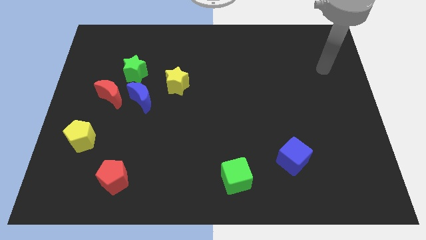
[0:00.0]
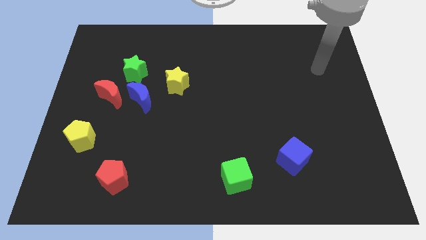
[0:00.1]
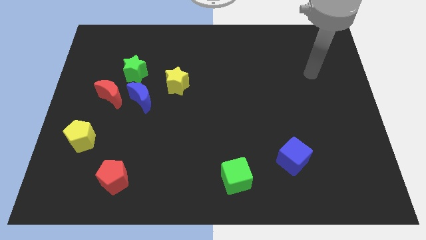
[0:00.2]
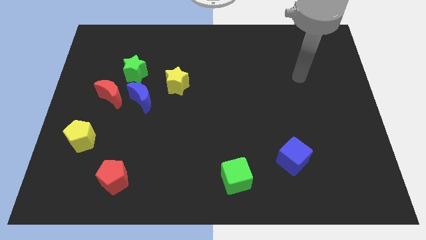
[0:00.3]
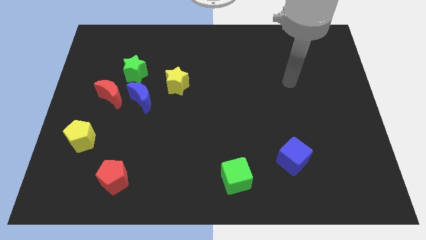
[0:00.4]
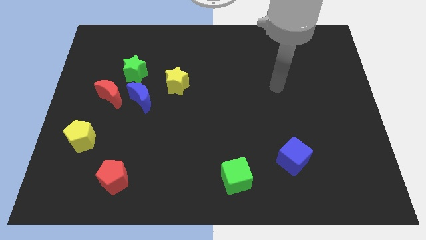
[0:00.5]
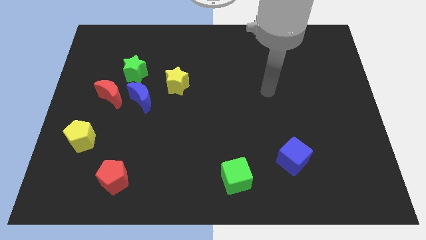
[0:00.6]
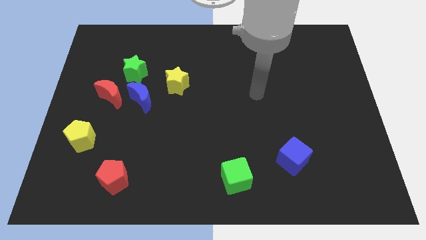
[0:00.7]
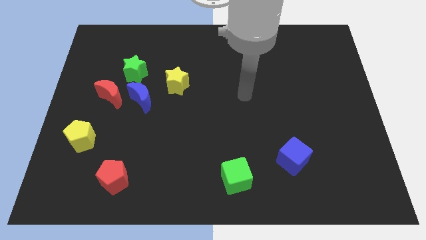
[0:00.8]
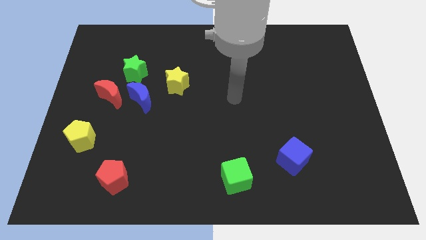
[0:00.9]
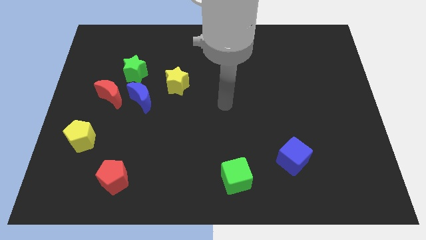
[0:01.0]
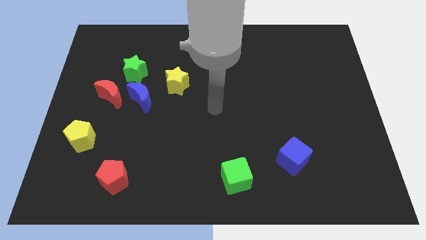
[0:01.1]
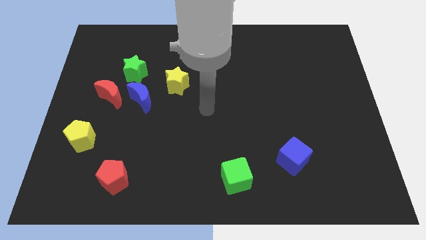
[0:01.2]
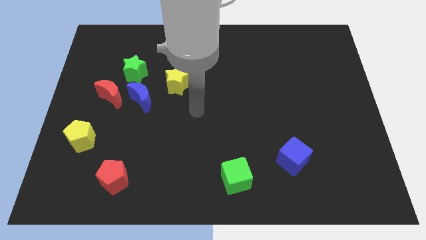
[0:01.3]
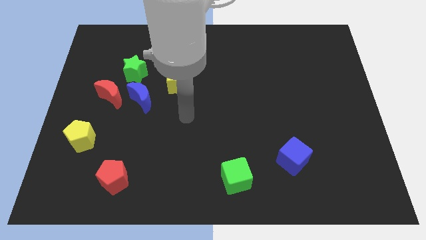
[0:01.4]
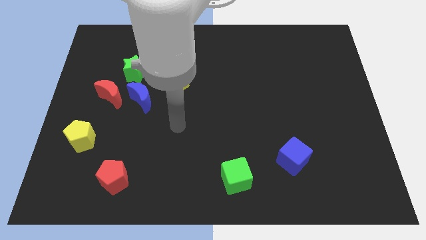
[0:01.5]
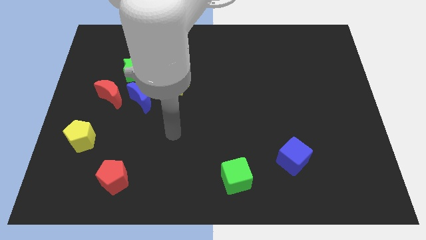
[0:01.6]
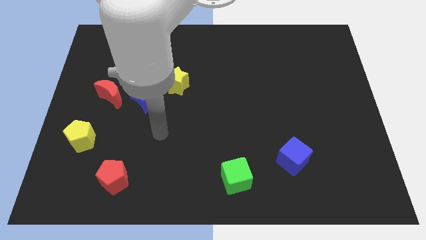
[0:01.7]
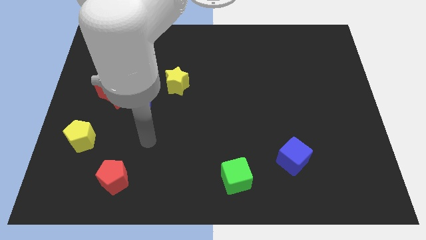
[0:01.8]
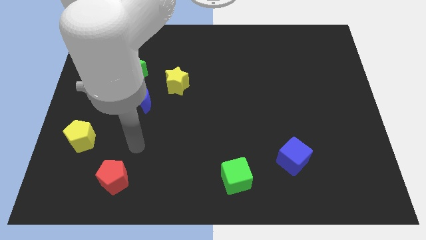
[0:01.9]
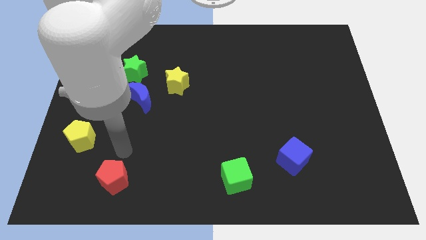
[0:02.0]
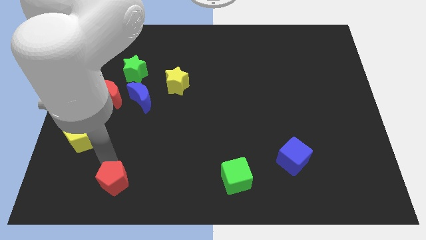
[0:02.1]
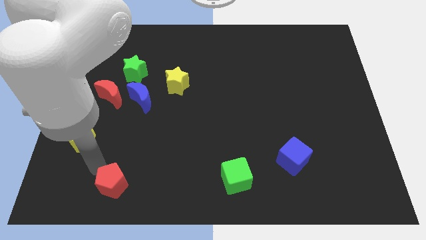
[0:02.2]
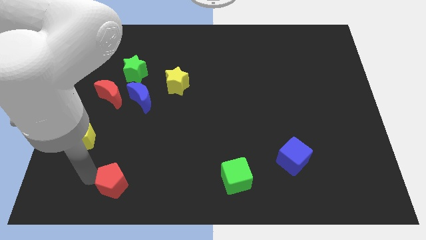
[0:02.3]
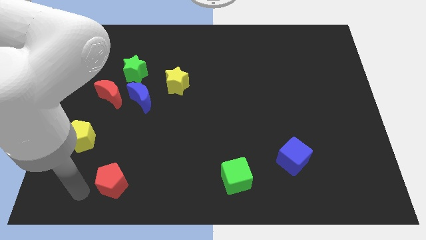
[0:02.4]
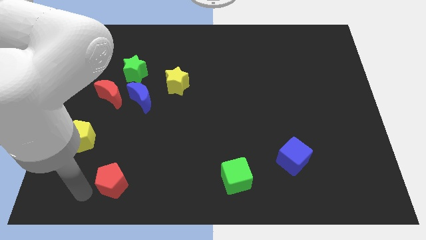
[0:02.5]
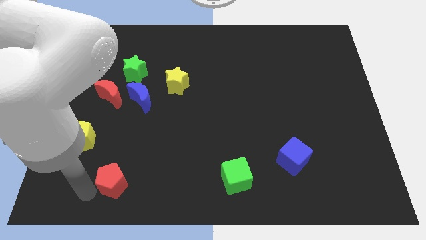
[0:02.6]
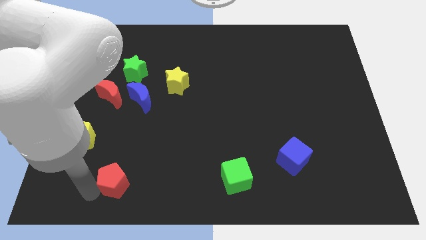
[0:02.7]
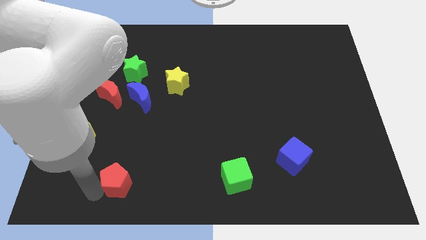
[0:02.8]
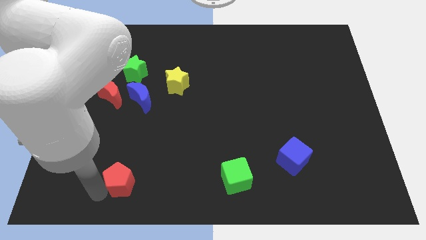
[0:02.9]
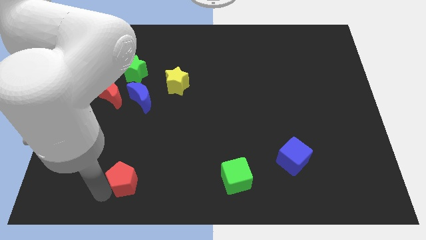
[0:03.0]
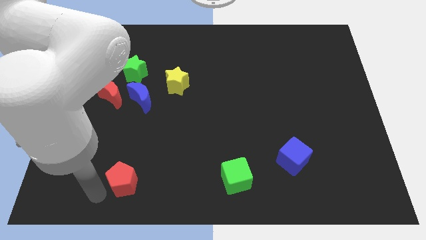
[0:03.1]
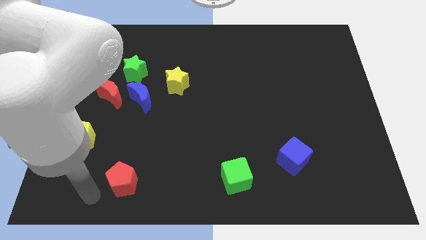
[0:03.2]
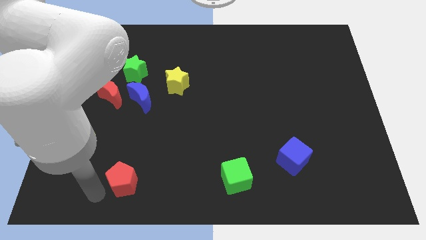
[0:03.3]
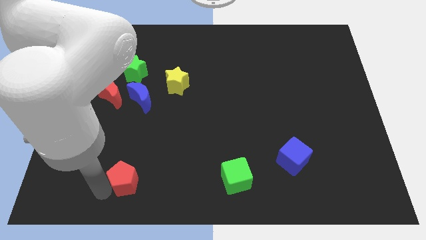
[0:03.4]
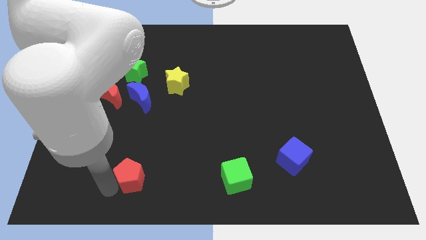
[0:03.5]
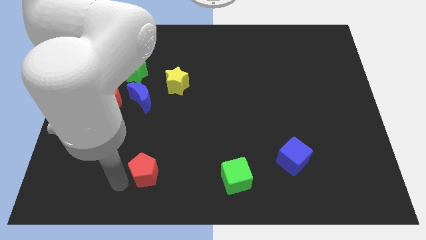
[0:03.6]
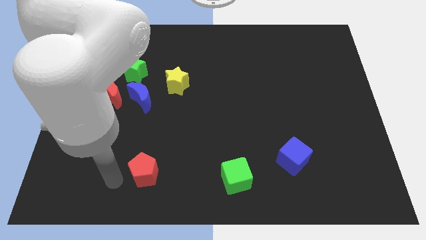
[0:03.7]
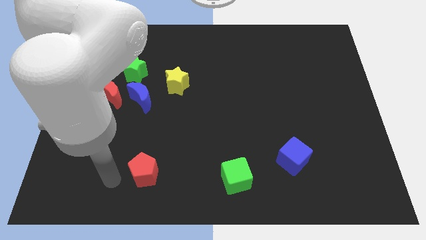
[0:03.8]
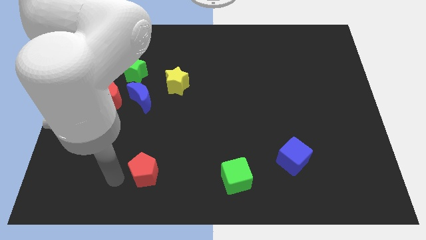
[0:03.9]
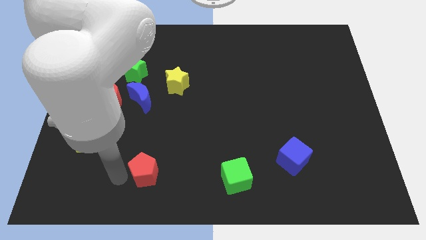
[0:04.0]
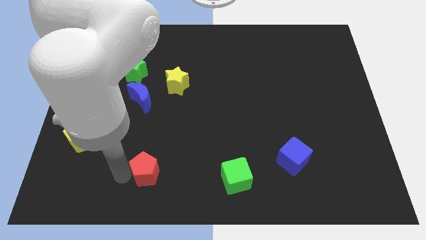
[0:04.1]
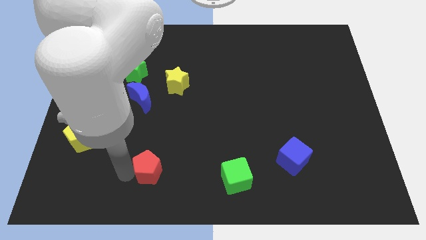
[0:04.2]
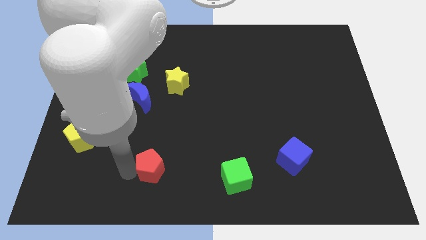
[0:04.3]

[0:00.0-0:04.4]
push the red pentagon somewhat to the right

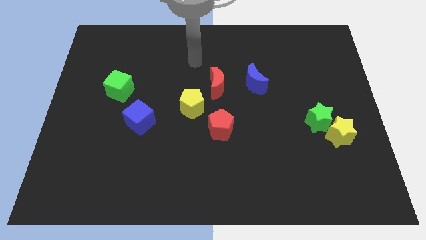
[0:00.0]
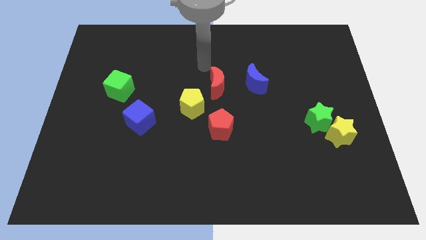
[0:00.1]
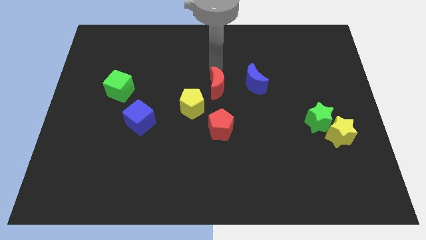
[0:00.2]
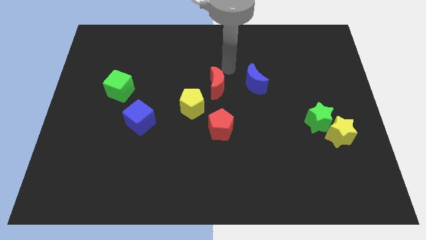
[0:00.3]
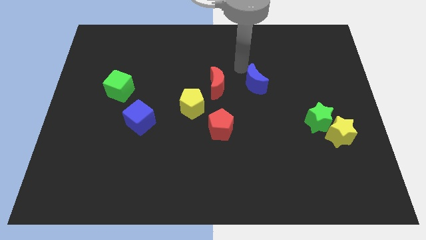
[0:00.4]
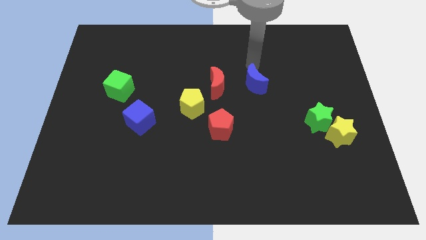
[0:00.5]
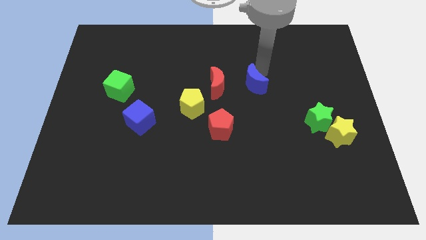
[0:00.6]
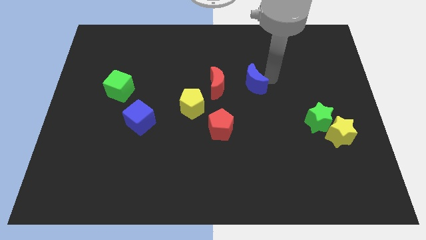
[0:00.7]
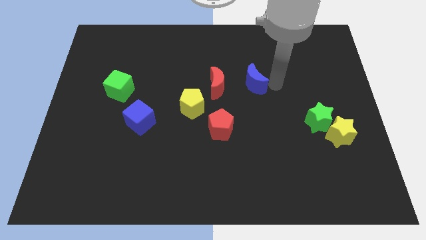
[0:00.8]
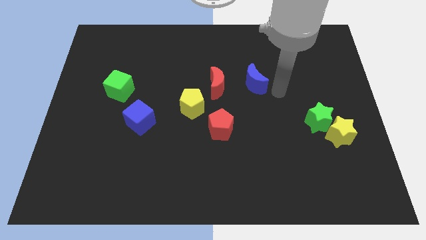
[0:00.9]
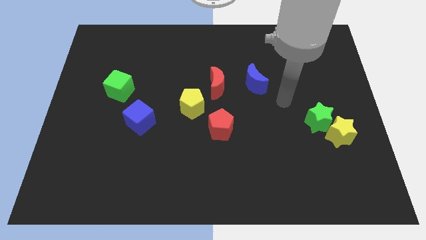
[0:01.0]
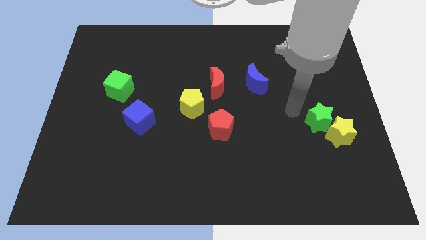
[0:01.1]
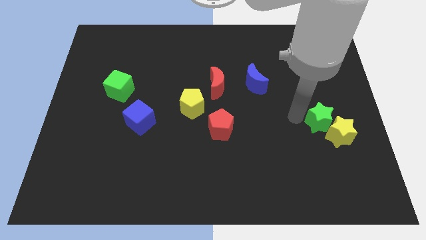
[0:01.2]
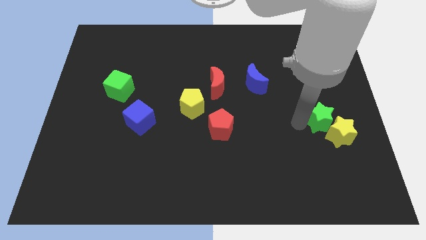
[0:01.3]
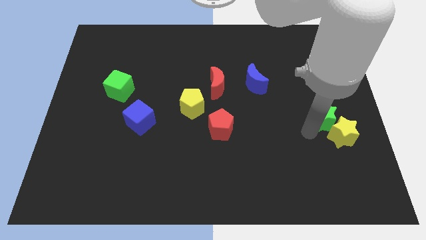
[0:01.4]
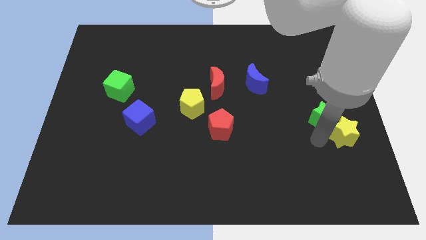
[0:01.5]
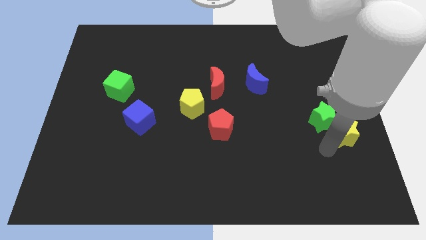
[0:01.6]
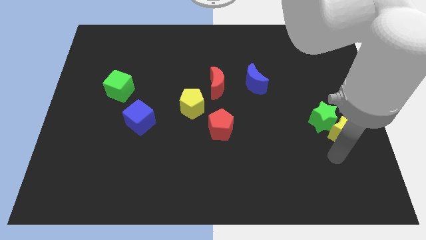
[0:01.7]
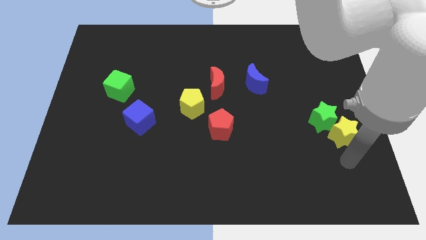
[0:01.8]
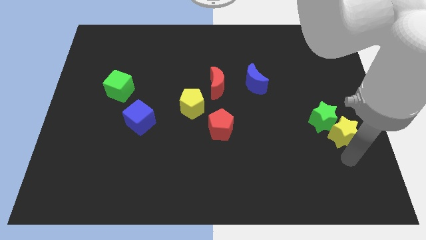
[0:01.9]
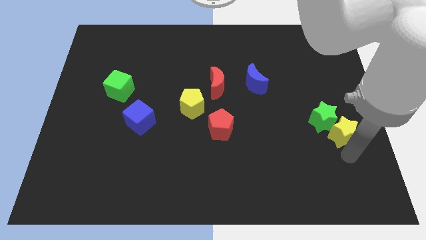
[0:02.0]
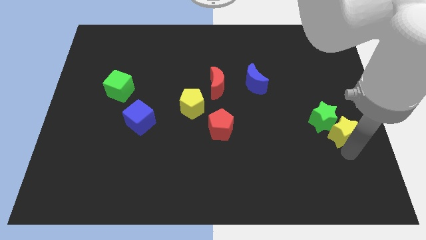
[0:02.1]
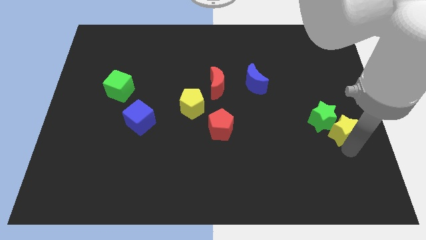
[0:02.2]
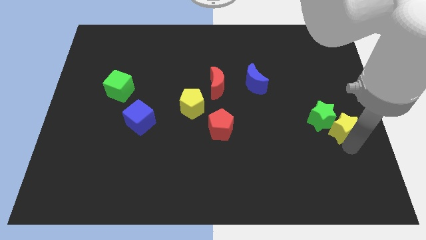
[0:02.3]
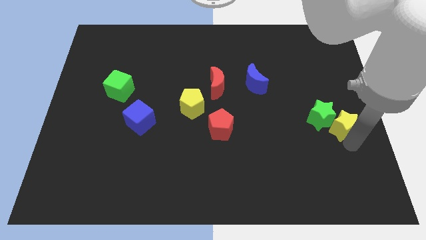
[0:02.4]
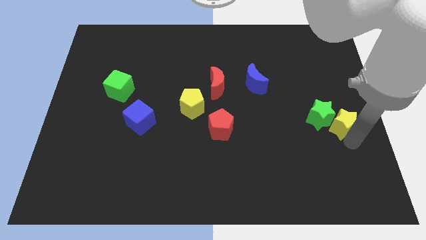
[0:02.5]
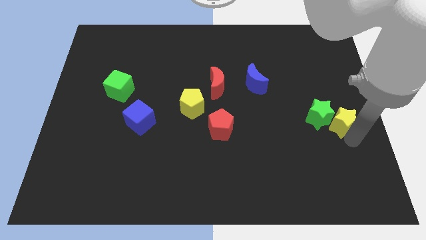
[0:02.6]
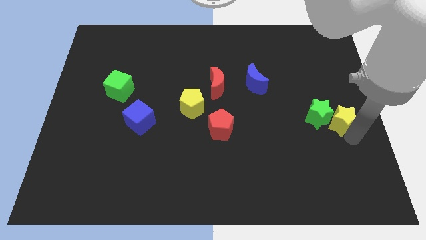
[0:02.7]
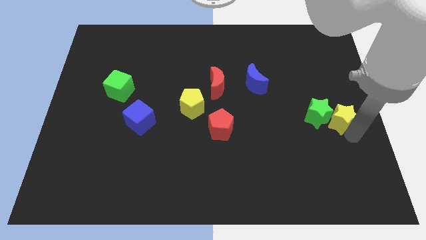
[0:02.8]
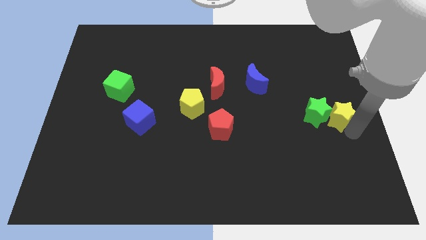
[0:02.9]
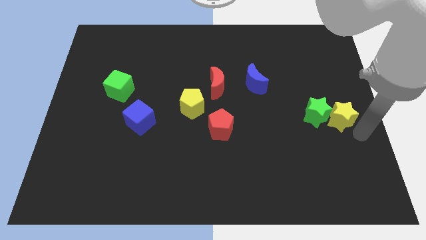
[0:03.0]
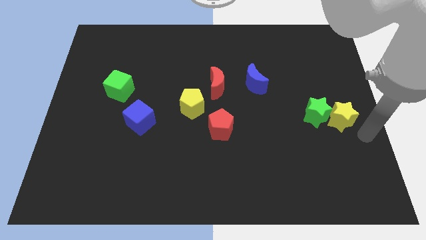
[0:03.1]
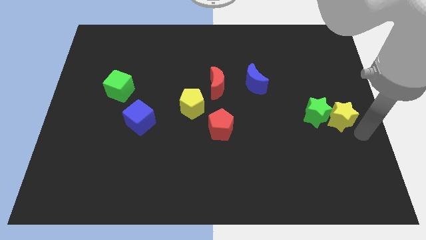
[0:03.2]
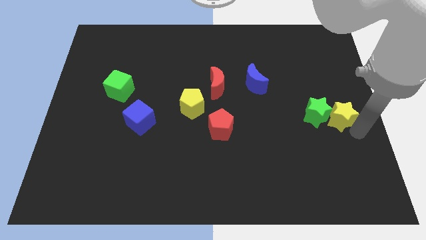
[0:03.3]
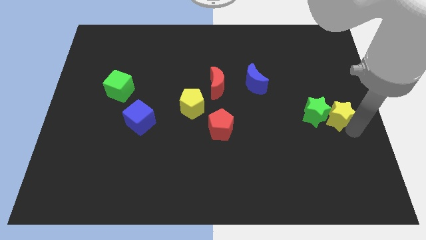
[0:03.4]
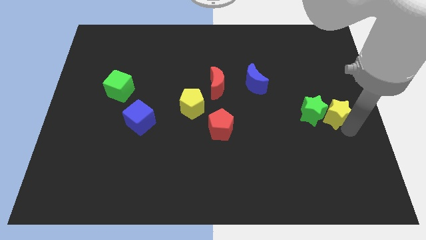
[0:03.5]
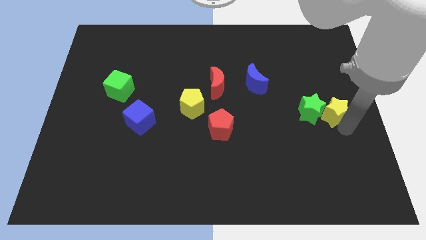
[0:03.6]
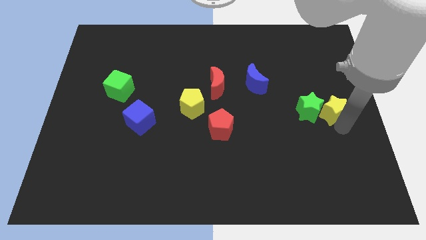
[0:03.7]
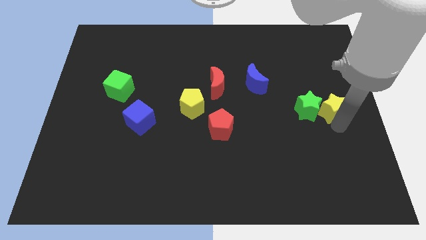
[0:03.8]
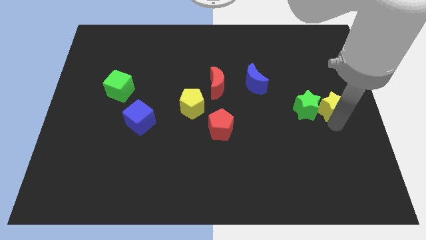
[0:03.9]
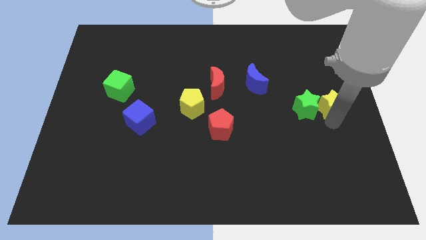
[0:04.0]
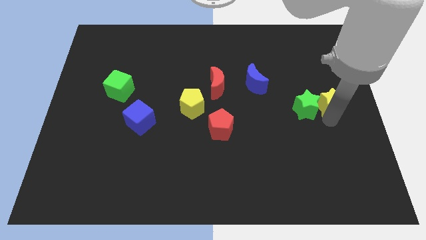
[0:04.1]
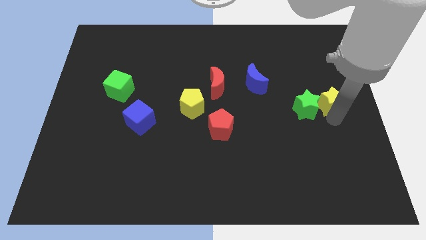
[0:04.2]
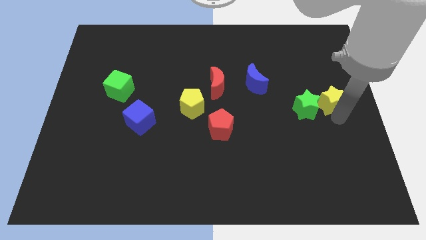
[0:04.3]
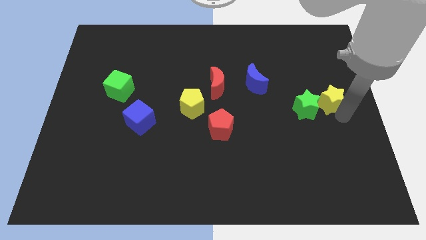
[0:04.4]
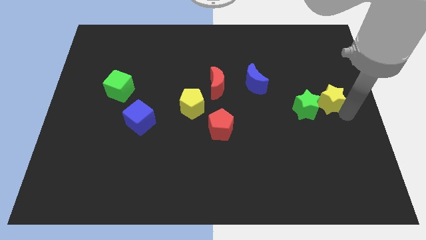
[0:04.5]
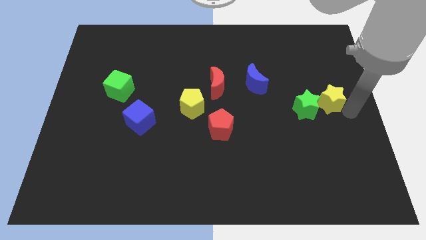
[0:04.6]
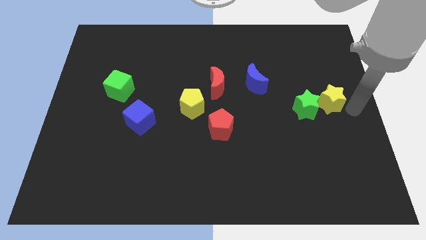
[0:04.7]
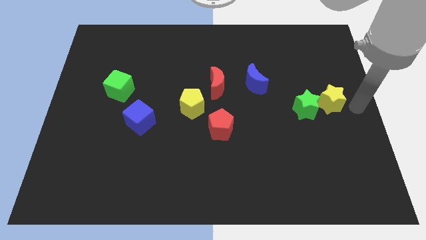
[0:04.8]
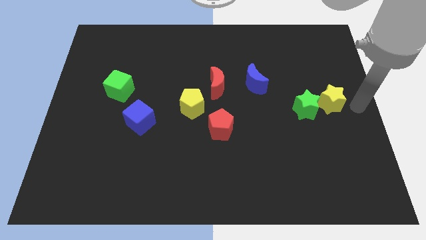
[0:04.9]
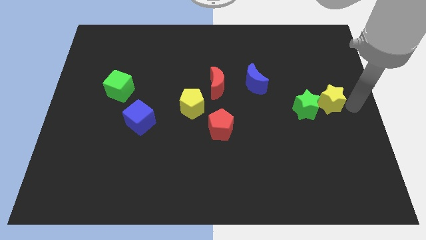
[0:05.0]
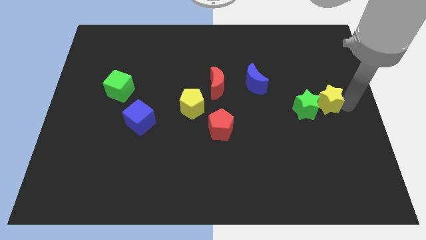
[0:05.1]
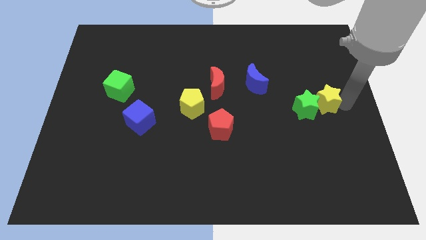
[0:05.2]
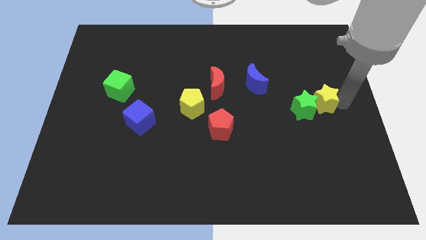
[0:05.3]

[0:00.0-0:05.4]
slightly slide the yellow star up and then left
